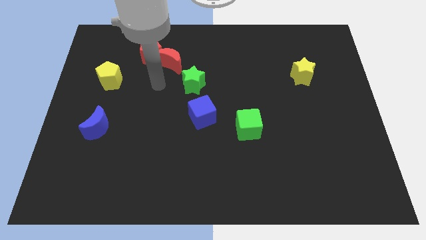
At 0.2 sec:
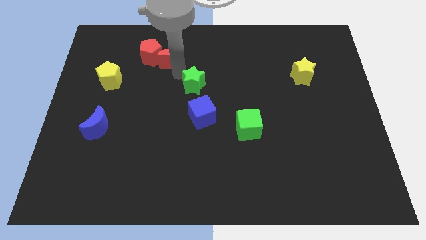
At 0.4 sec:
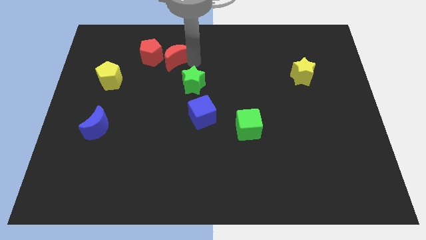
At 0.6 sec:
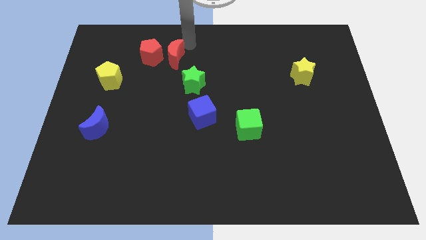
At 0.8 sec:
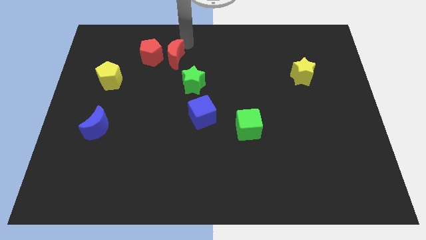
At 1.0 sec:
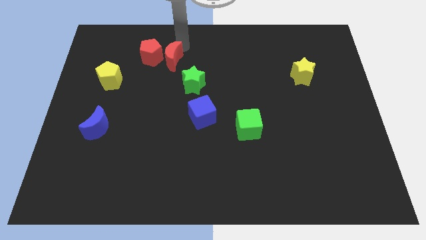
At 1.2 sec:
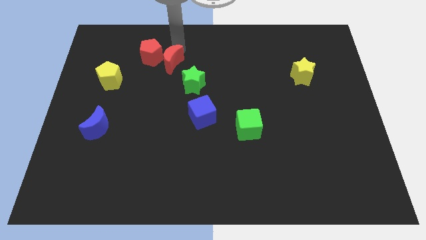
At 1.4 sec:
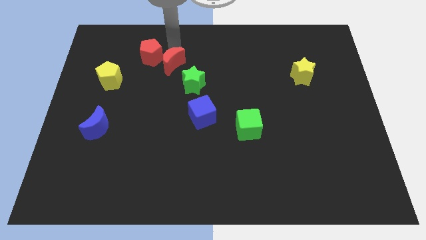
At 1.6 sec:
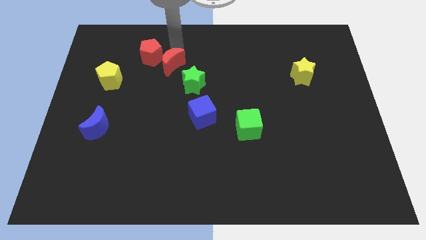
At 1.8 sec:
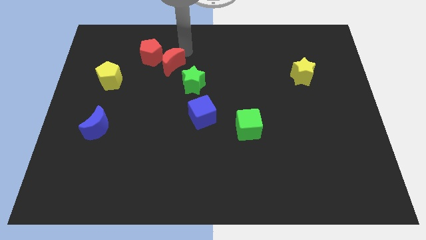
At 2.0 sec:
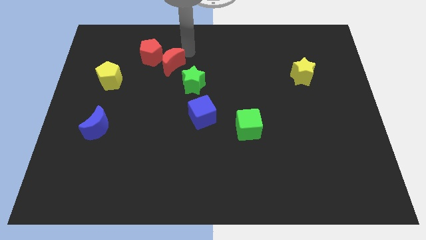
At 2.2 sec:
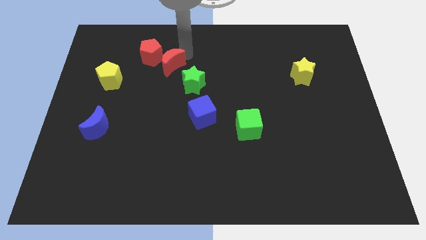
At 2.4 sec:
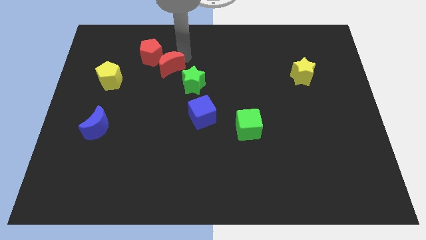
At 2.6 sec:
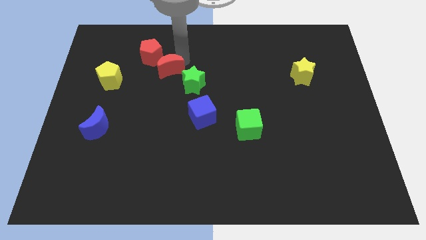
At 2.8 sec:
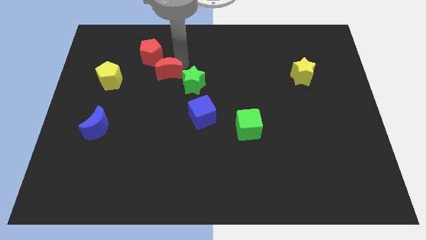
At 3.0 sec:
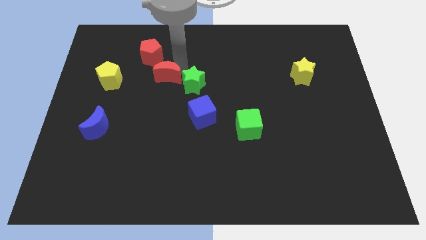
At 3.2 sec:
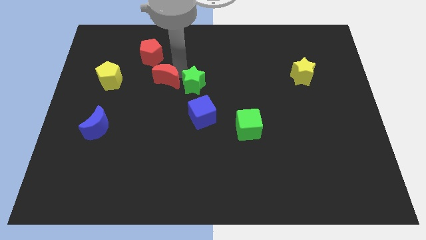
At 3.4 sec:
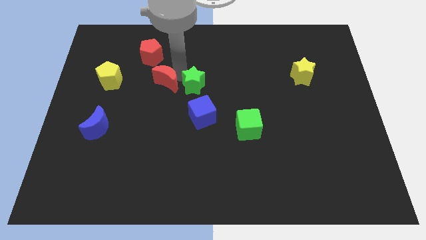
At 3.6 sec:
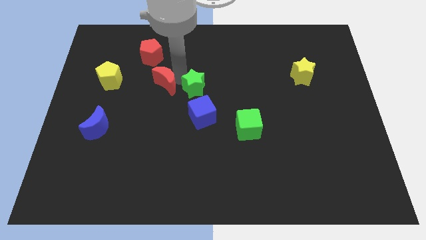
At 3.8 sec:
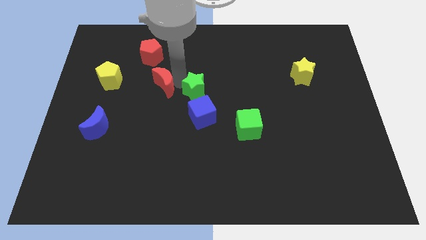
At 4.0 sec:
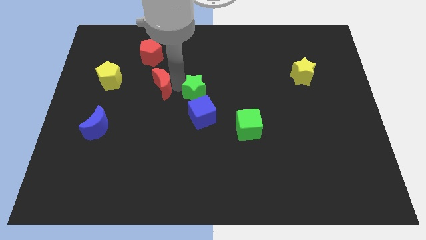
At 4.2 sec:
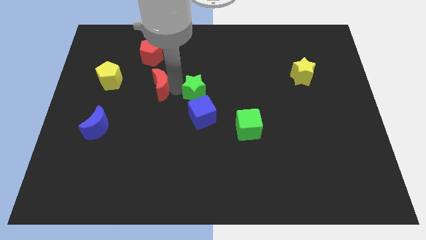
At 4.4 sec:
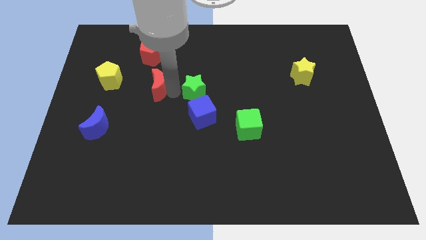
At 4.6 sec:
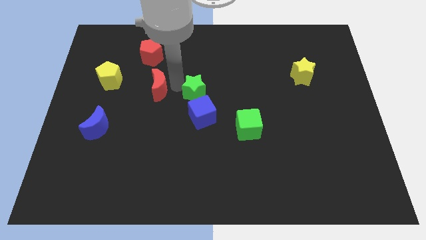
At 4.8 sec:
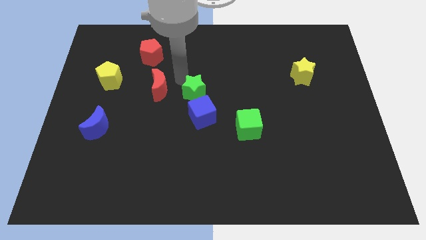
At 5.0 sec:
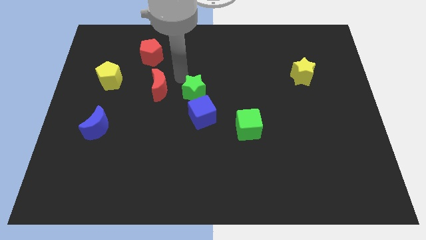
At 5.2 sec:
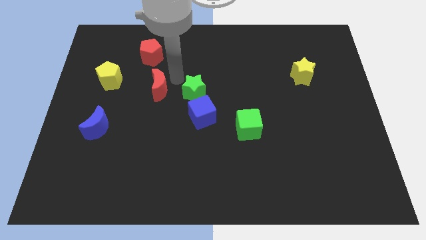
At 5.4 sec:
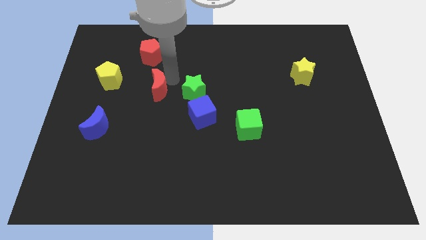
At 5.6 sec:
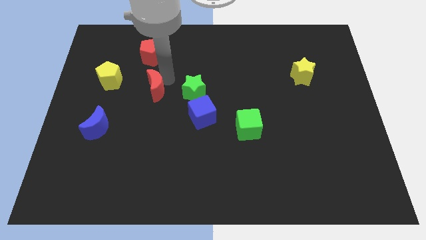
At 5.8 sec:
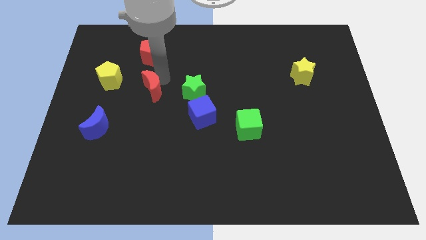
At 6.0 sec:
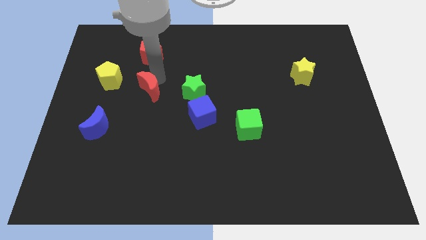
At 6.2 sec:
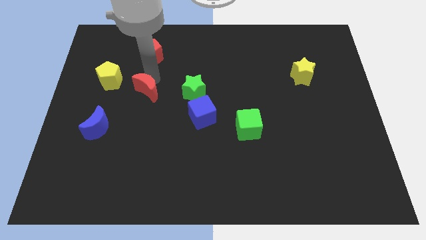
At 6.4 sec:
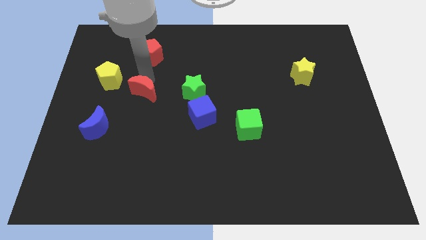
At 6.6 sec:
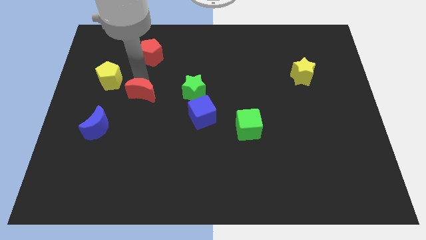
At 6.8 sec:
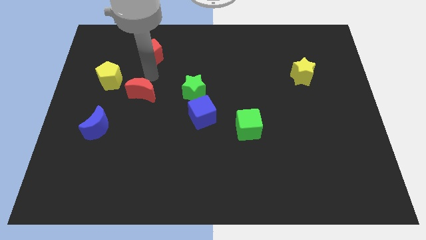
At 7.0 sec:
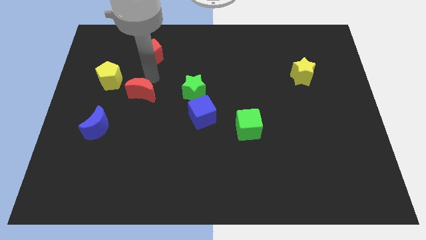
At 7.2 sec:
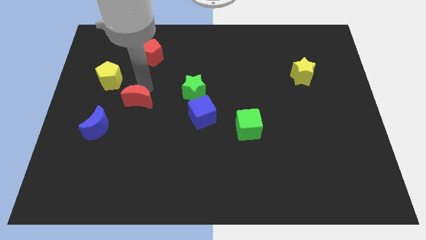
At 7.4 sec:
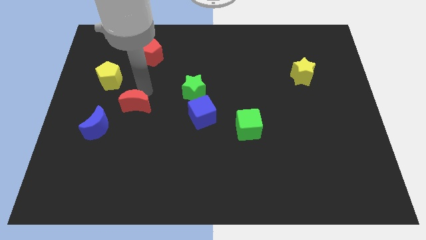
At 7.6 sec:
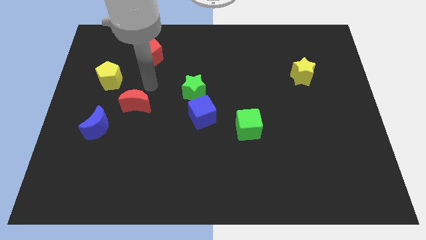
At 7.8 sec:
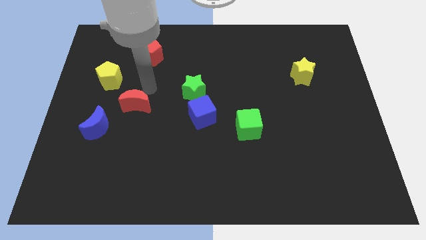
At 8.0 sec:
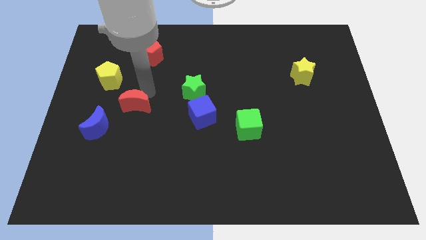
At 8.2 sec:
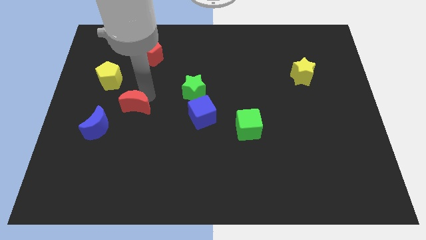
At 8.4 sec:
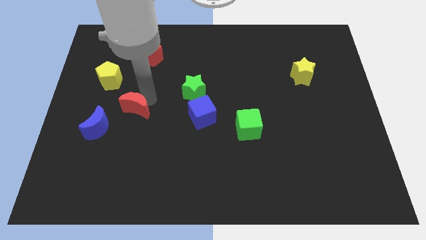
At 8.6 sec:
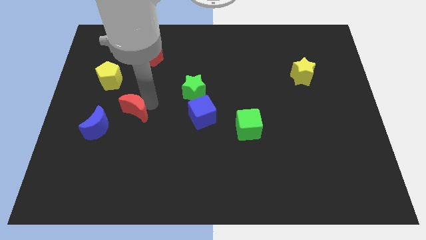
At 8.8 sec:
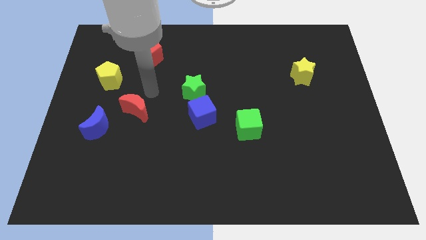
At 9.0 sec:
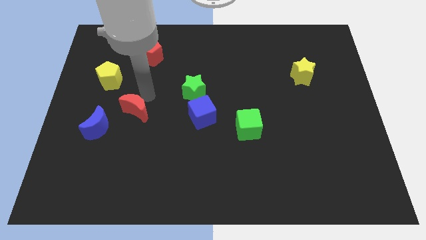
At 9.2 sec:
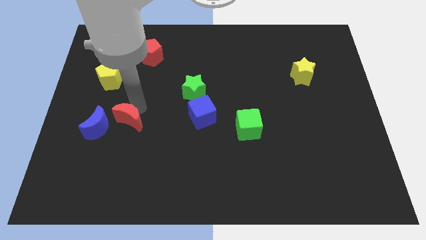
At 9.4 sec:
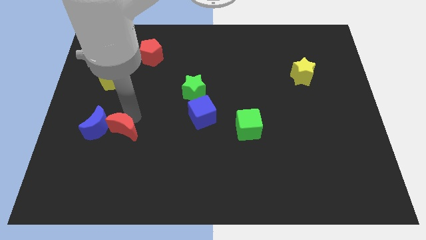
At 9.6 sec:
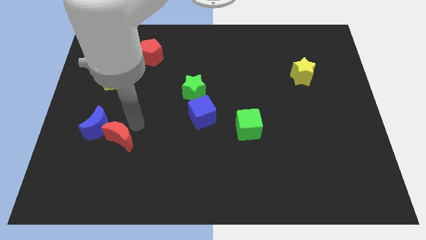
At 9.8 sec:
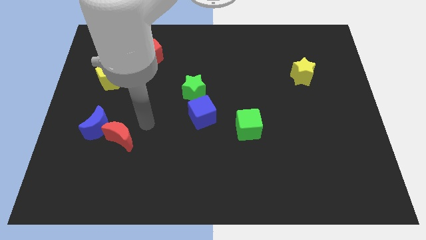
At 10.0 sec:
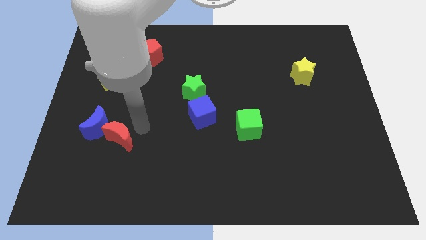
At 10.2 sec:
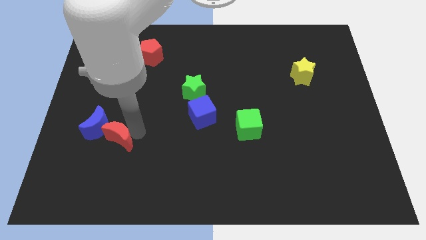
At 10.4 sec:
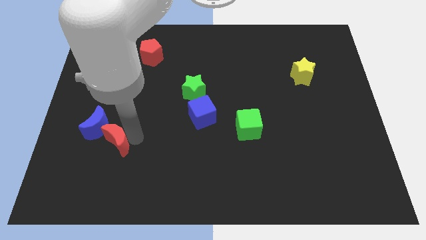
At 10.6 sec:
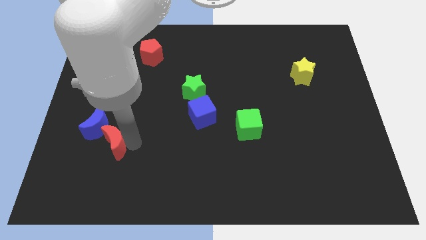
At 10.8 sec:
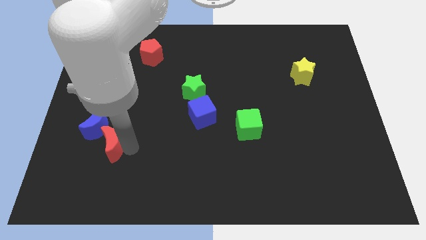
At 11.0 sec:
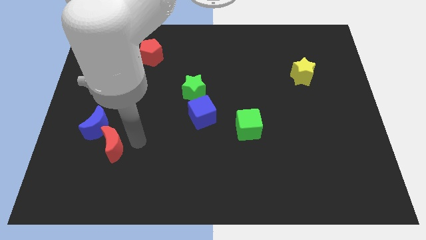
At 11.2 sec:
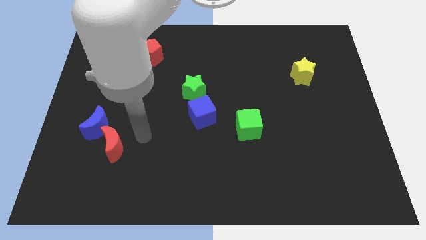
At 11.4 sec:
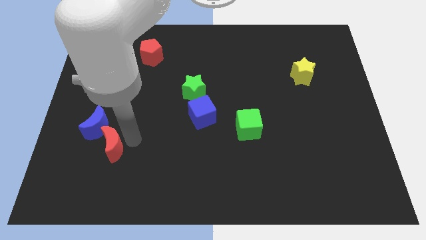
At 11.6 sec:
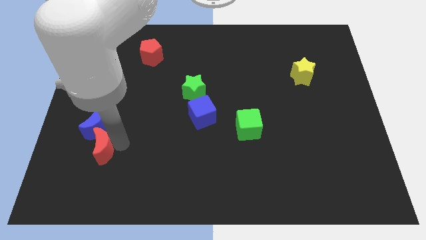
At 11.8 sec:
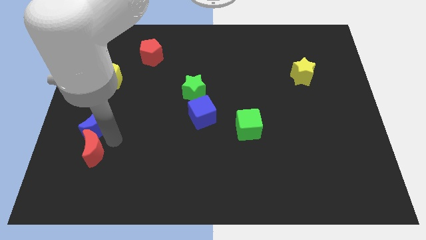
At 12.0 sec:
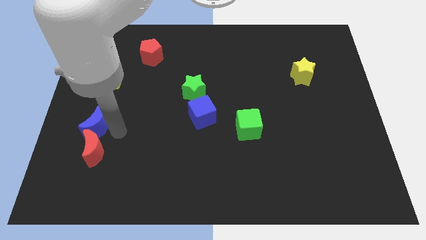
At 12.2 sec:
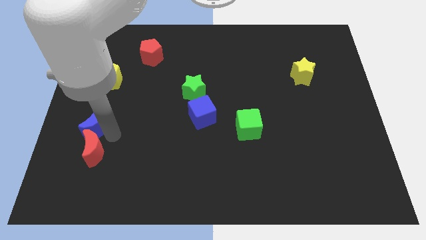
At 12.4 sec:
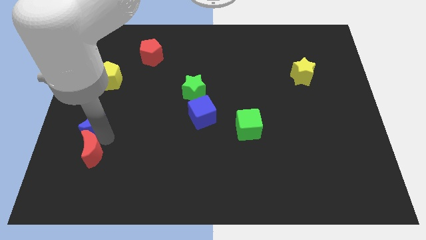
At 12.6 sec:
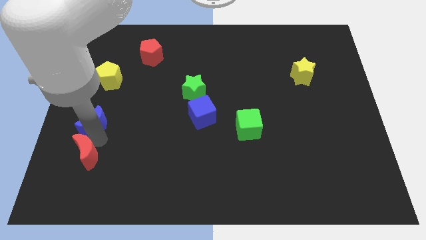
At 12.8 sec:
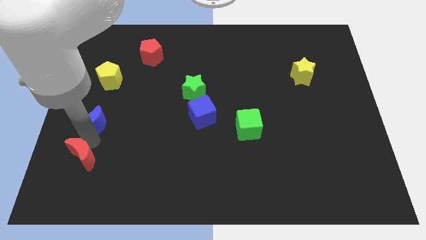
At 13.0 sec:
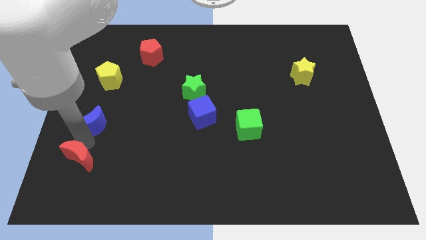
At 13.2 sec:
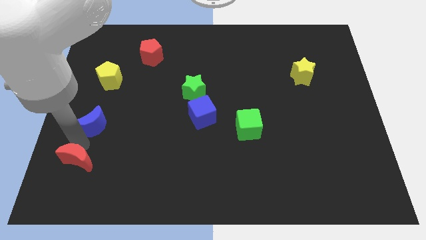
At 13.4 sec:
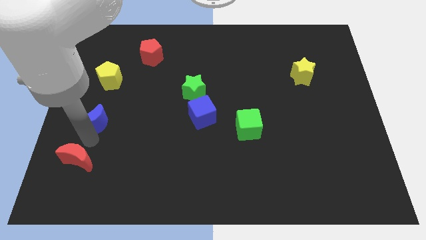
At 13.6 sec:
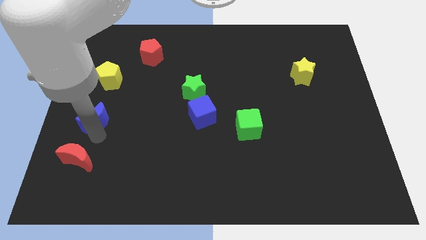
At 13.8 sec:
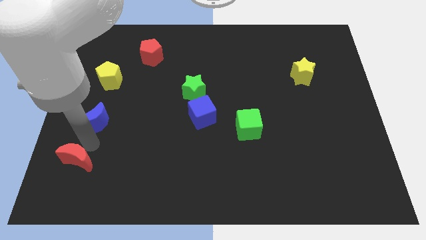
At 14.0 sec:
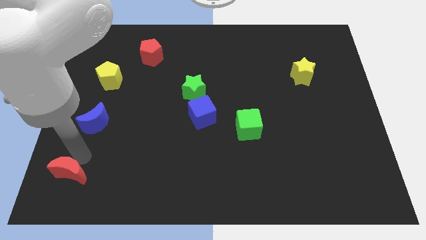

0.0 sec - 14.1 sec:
put the red moon to the bottom left corner
